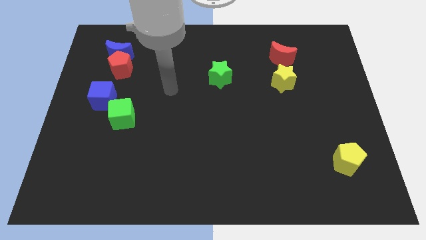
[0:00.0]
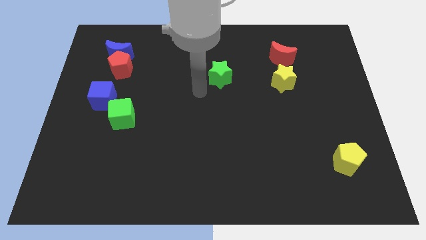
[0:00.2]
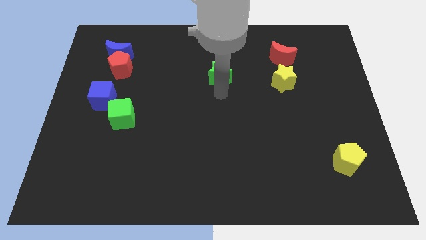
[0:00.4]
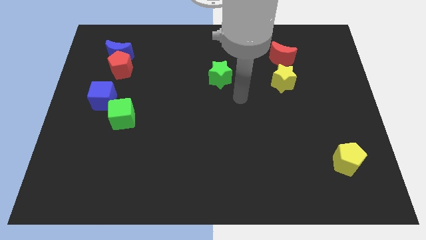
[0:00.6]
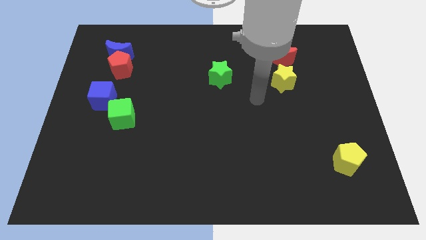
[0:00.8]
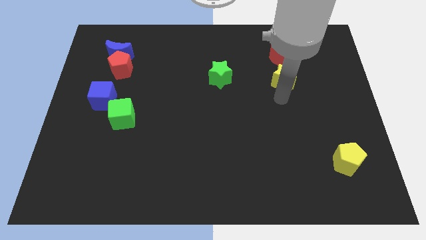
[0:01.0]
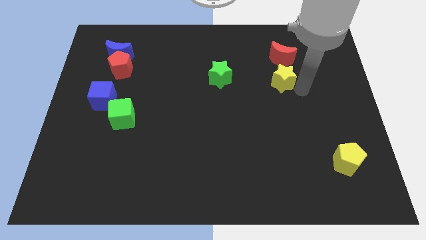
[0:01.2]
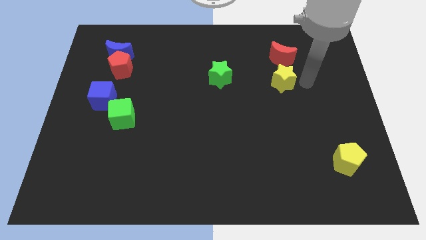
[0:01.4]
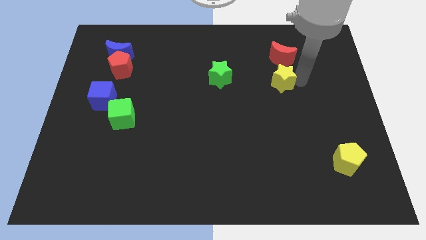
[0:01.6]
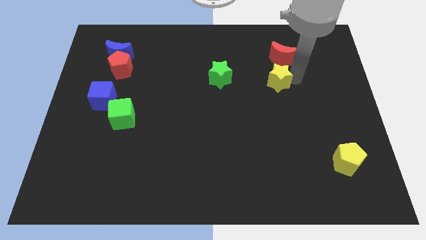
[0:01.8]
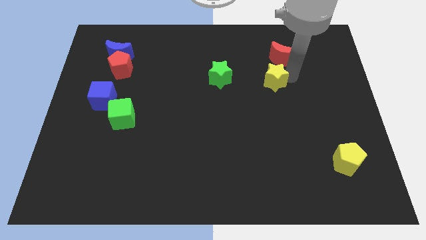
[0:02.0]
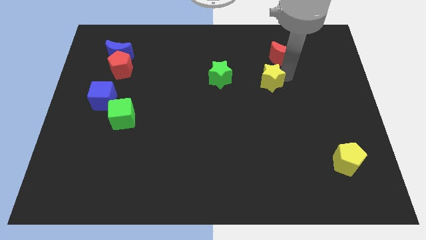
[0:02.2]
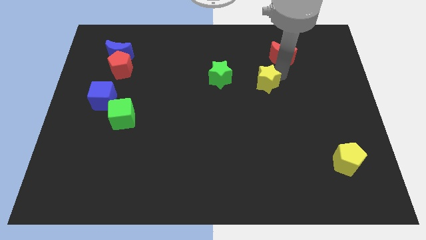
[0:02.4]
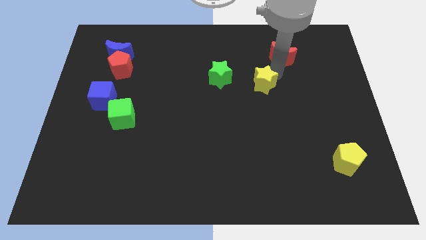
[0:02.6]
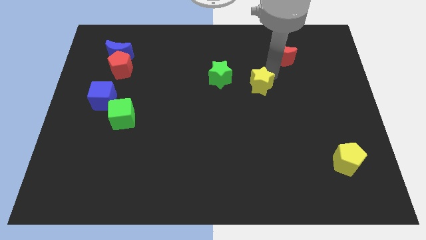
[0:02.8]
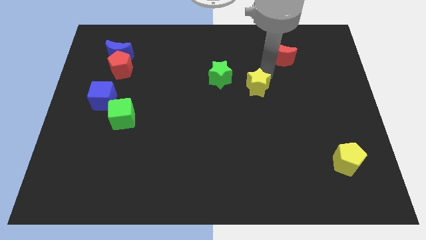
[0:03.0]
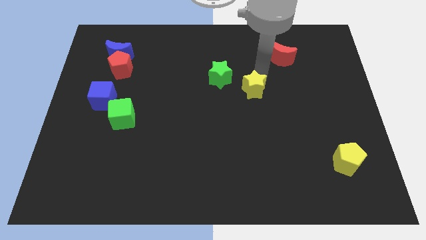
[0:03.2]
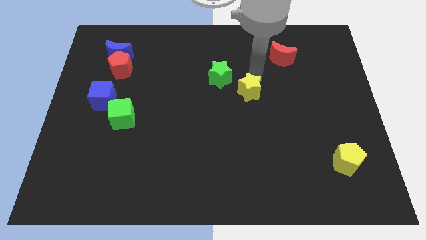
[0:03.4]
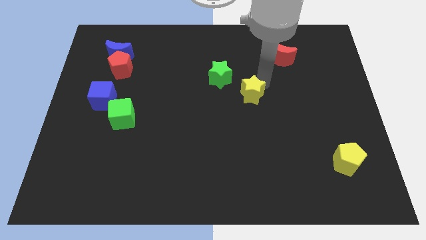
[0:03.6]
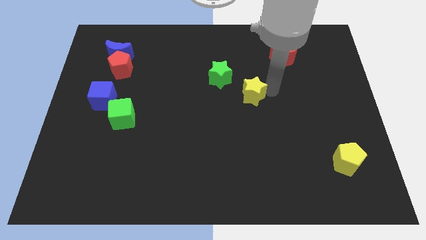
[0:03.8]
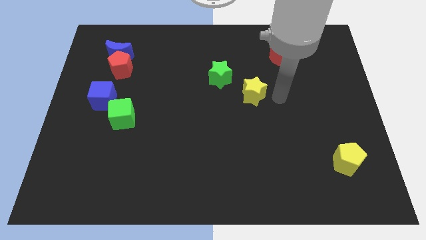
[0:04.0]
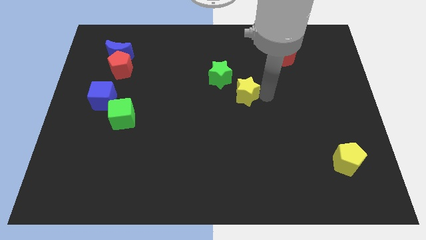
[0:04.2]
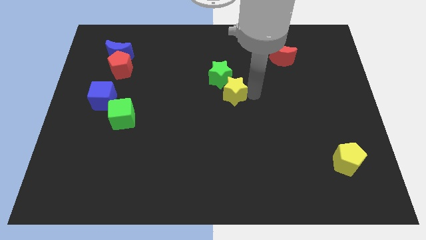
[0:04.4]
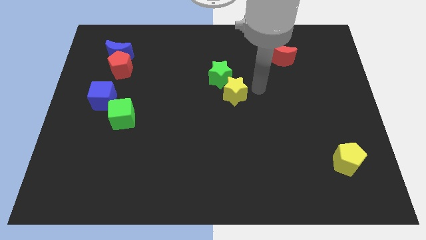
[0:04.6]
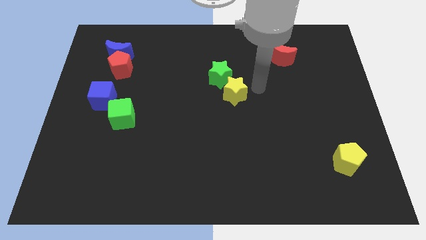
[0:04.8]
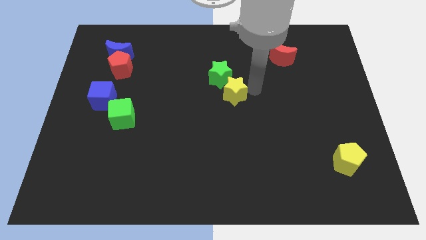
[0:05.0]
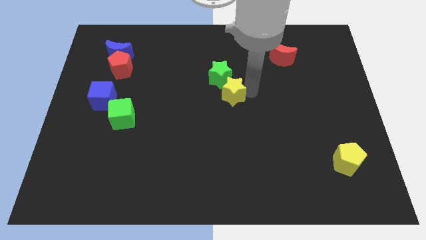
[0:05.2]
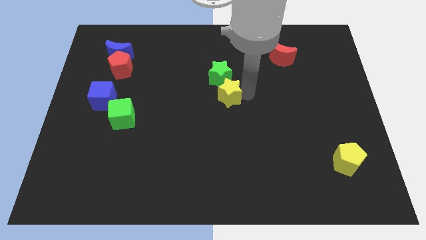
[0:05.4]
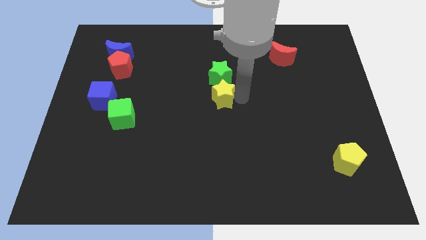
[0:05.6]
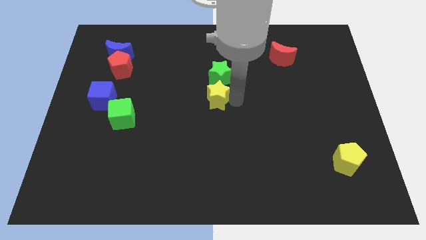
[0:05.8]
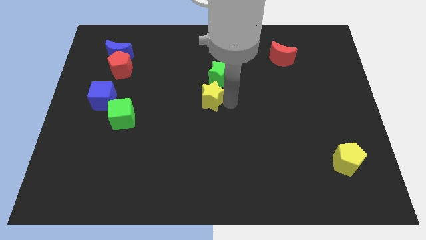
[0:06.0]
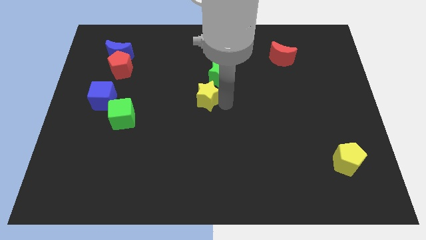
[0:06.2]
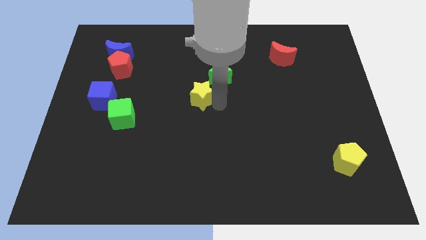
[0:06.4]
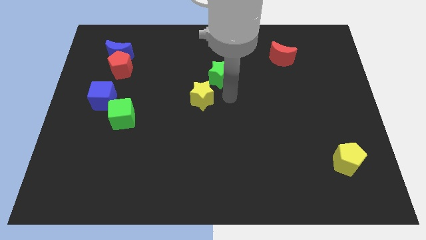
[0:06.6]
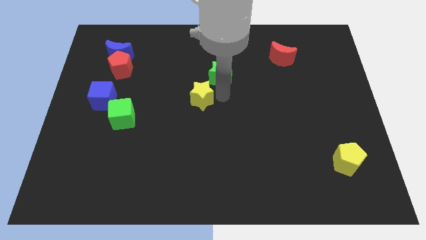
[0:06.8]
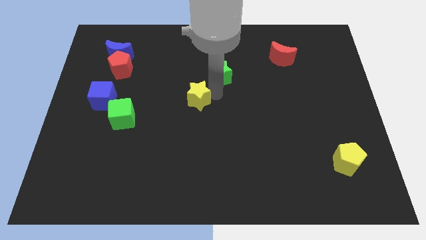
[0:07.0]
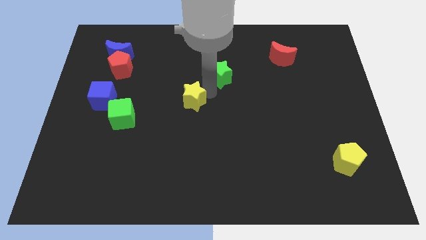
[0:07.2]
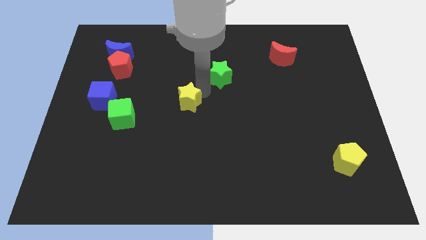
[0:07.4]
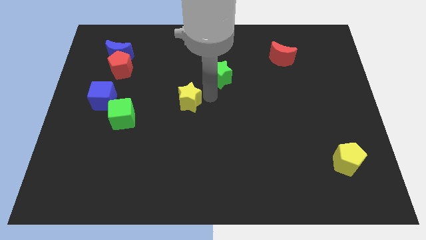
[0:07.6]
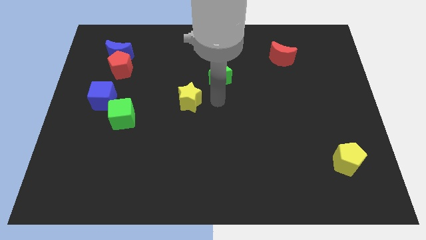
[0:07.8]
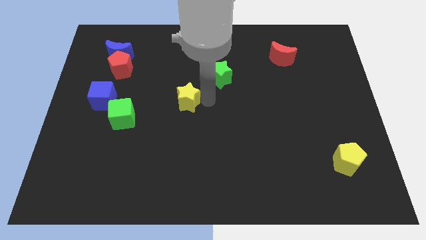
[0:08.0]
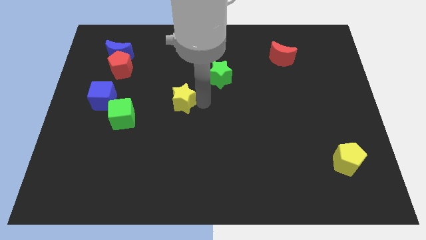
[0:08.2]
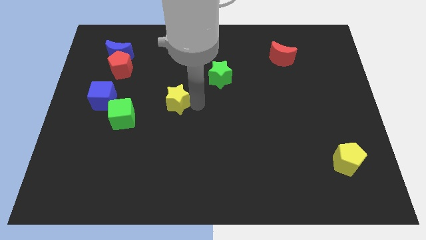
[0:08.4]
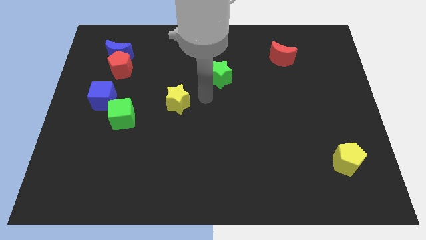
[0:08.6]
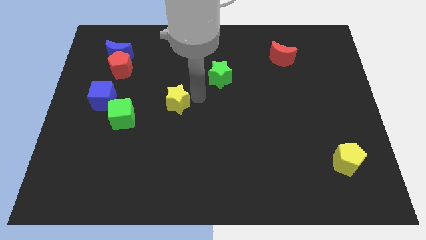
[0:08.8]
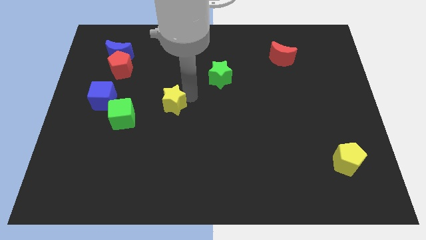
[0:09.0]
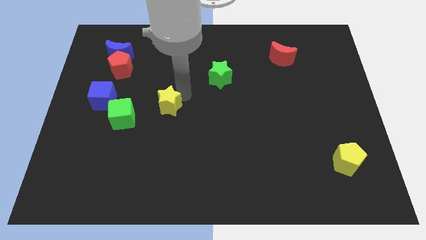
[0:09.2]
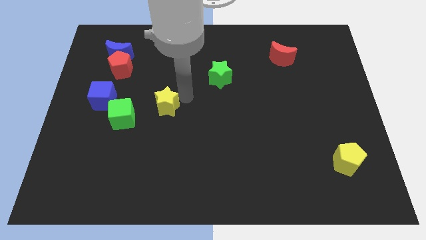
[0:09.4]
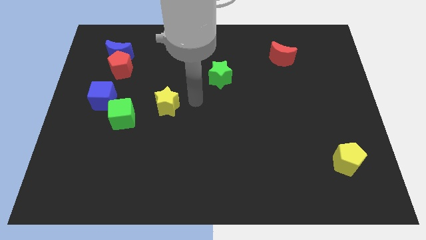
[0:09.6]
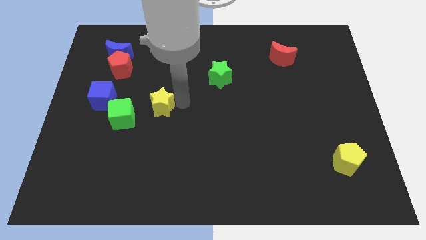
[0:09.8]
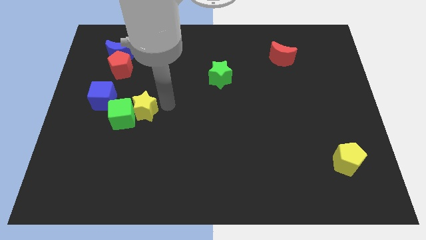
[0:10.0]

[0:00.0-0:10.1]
move the yellow star to the green cube

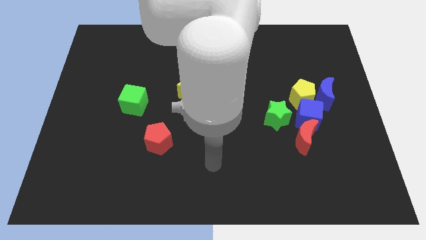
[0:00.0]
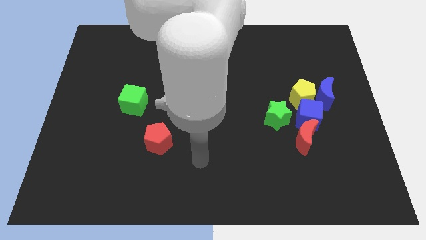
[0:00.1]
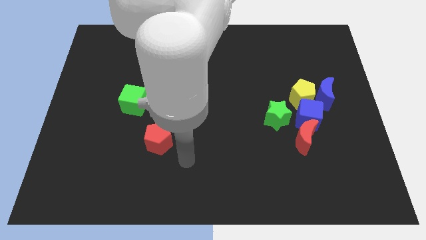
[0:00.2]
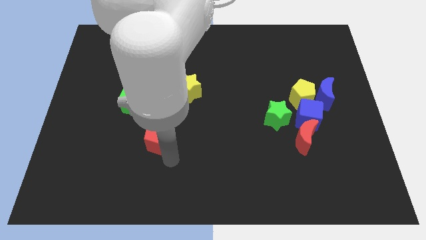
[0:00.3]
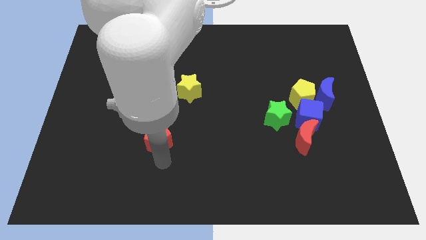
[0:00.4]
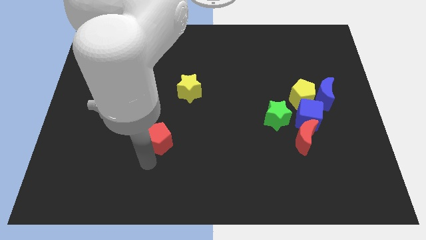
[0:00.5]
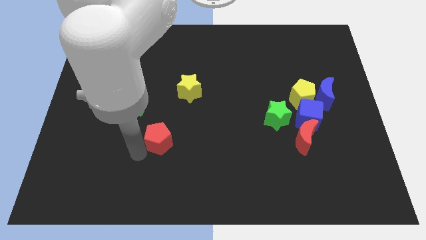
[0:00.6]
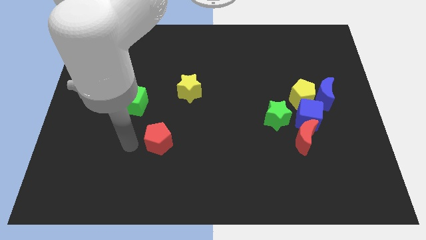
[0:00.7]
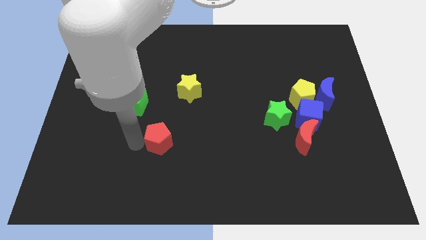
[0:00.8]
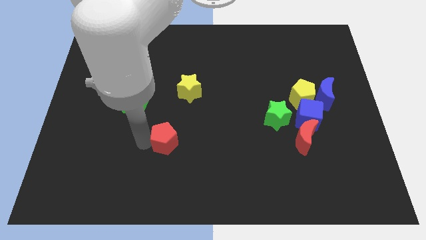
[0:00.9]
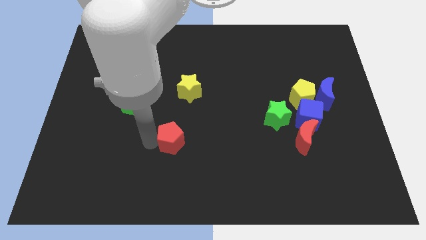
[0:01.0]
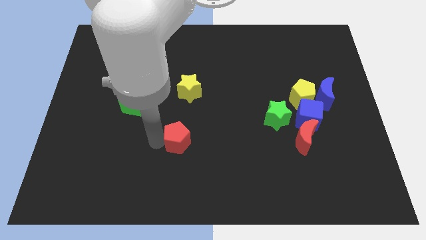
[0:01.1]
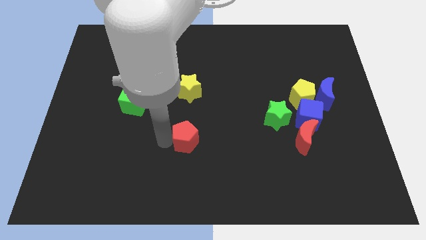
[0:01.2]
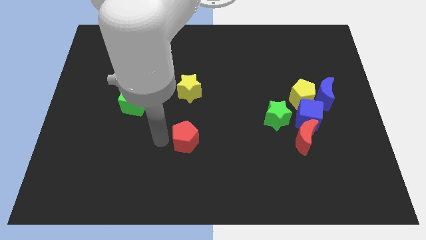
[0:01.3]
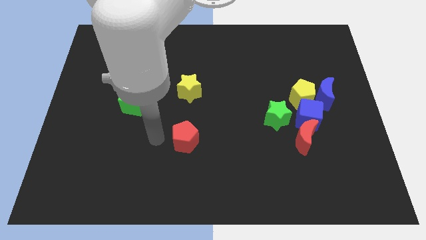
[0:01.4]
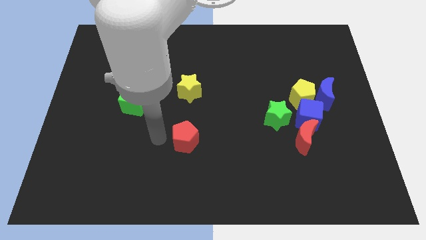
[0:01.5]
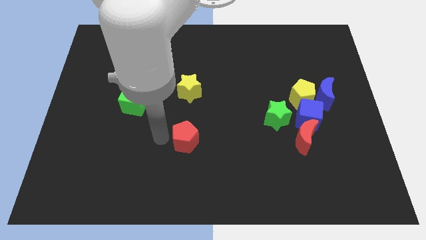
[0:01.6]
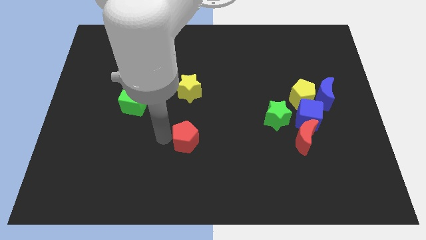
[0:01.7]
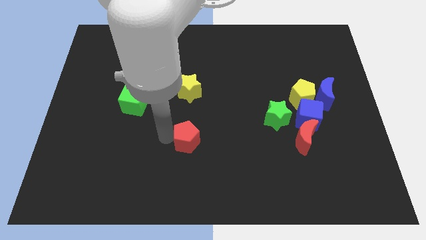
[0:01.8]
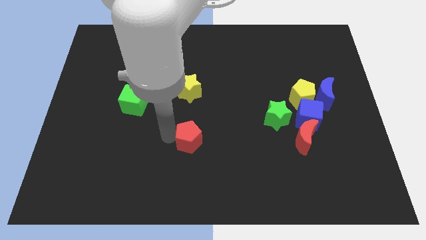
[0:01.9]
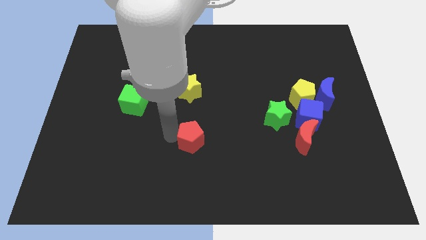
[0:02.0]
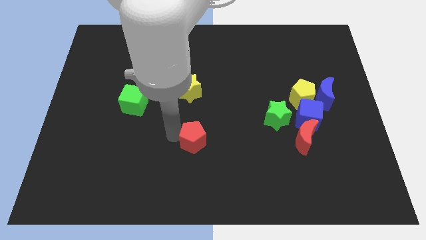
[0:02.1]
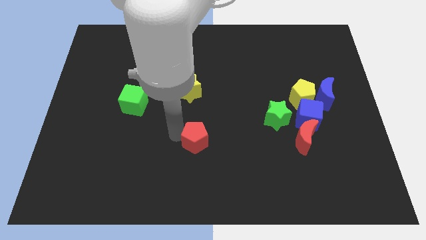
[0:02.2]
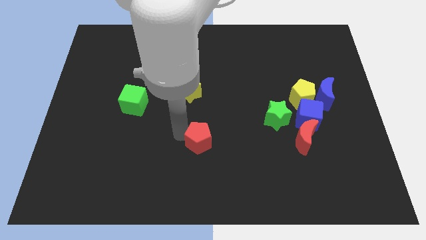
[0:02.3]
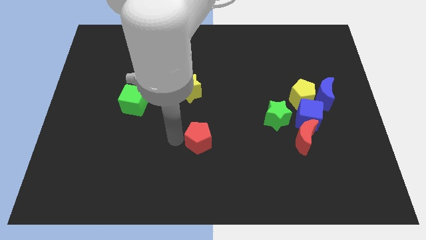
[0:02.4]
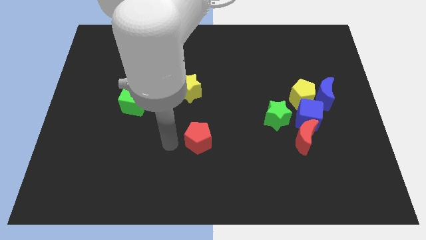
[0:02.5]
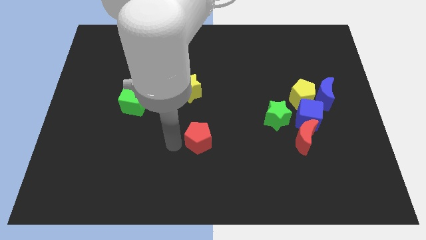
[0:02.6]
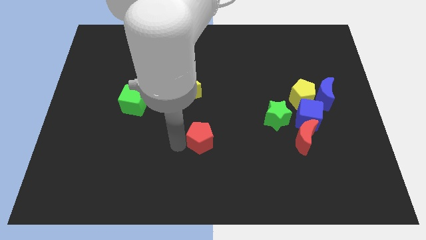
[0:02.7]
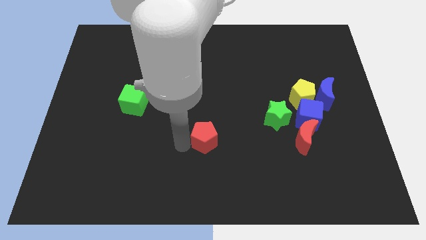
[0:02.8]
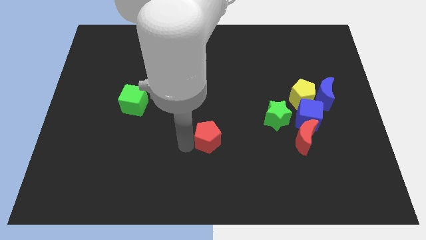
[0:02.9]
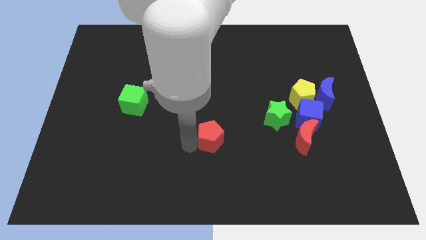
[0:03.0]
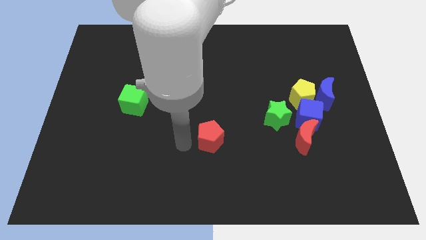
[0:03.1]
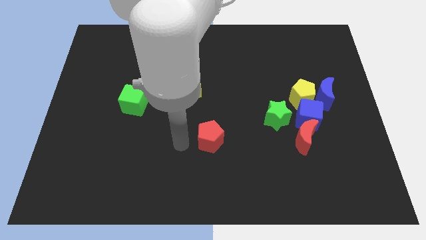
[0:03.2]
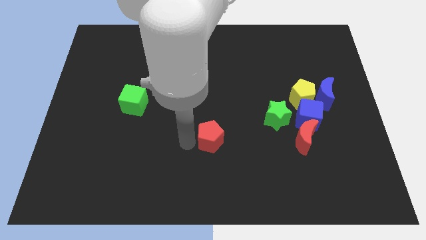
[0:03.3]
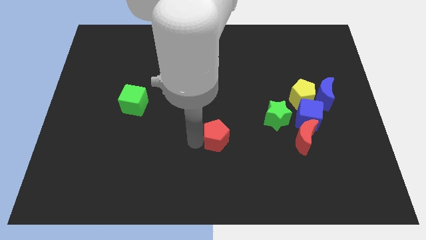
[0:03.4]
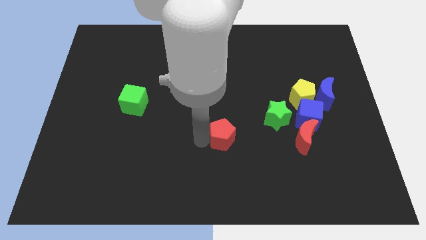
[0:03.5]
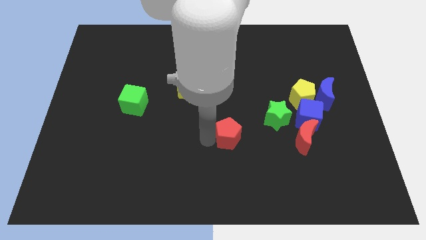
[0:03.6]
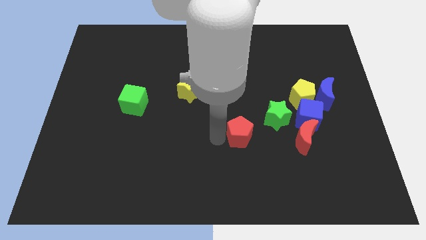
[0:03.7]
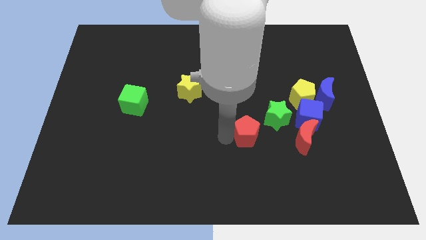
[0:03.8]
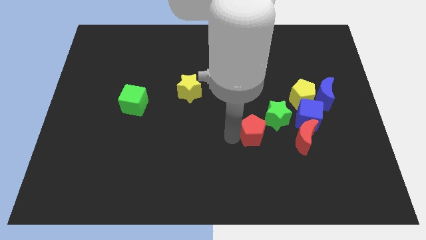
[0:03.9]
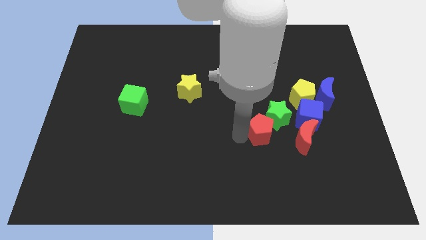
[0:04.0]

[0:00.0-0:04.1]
slide the red pentagon towards the green star
